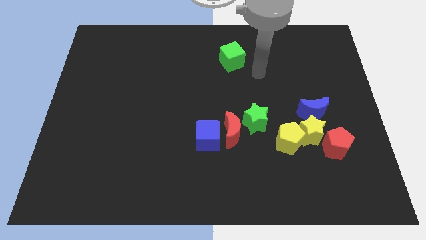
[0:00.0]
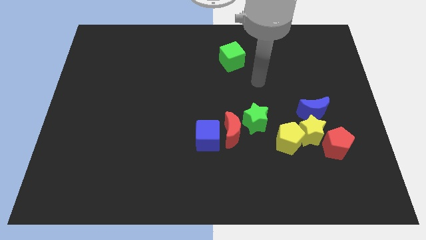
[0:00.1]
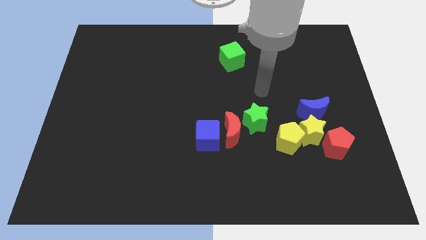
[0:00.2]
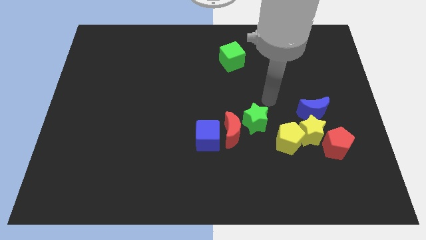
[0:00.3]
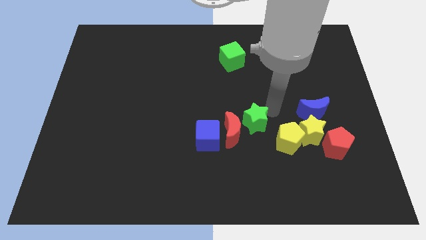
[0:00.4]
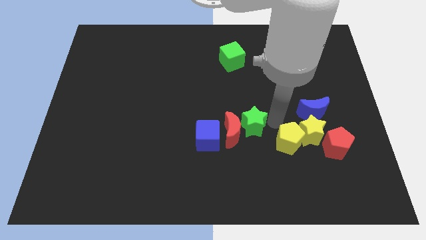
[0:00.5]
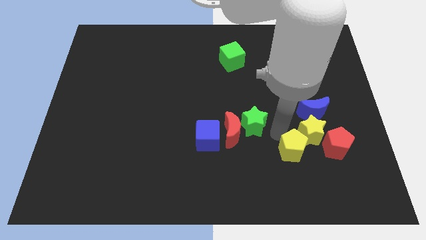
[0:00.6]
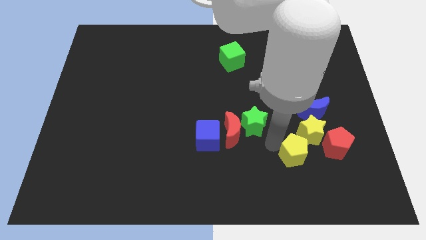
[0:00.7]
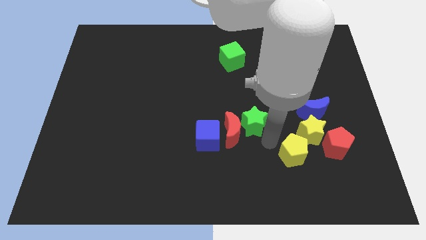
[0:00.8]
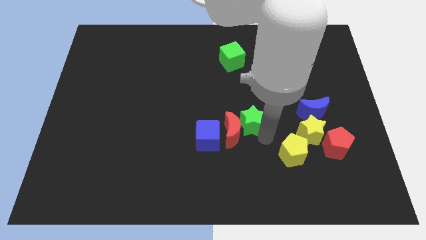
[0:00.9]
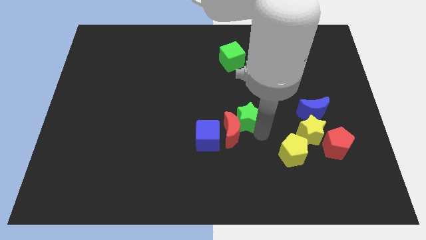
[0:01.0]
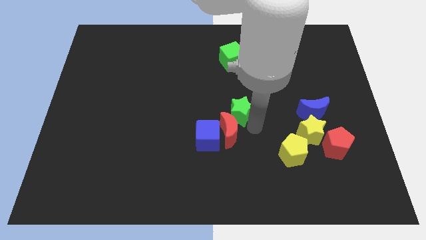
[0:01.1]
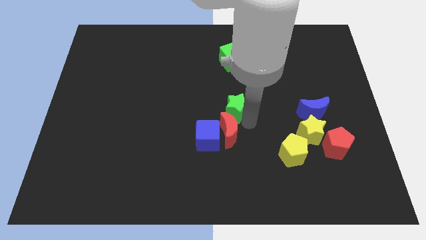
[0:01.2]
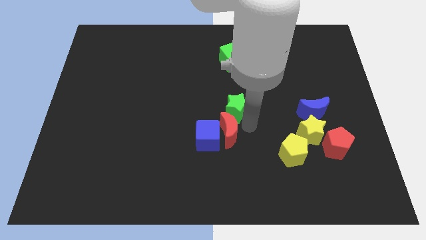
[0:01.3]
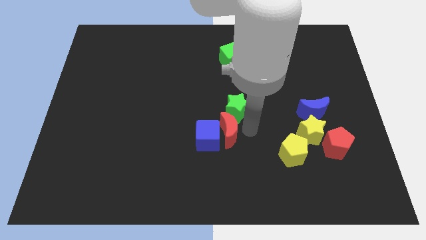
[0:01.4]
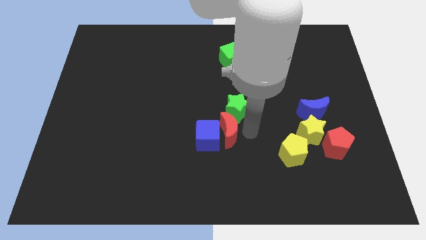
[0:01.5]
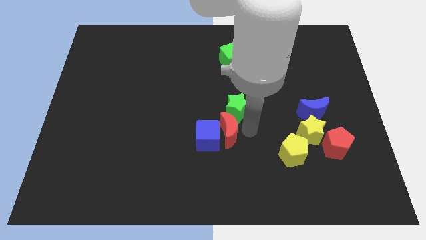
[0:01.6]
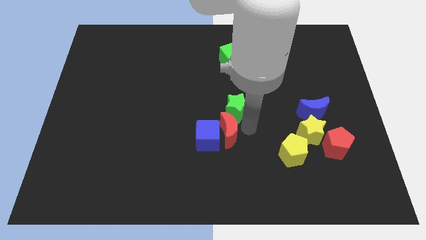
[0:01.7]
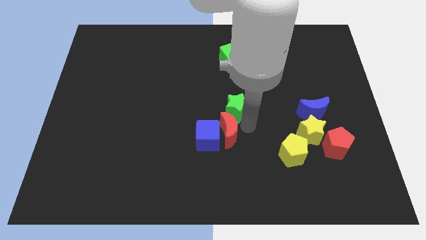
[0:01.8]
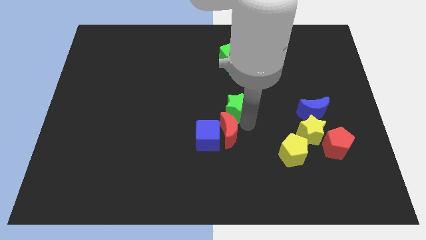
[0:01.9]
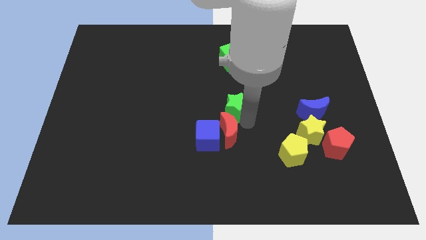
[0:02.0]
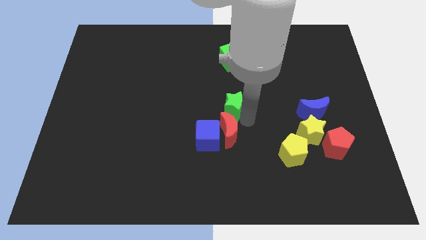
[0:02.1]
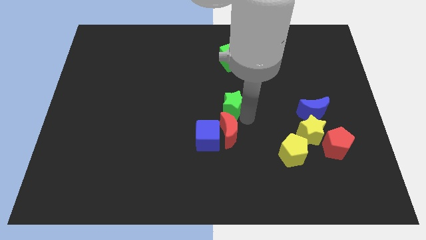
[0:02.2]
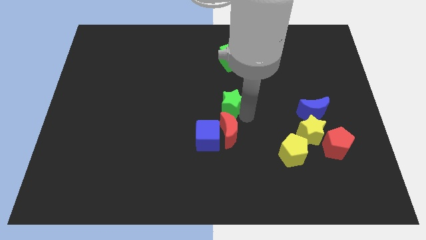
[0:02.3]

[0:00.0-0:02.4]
slide the green star up and left diagonally somewhat

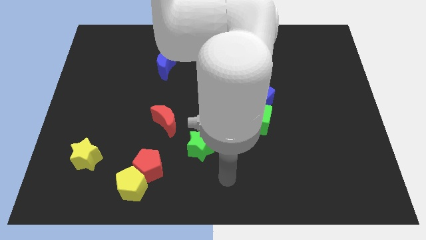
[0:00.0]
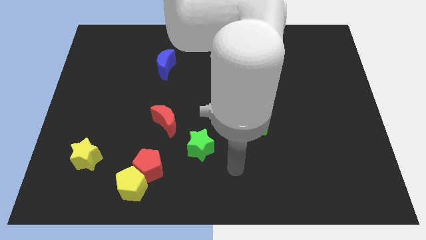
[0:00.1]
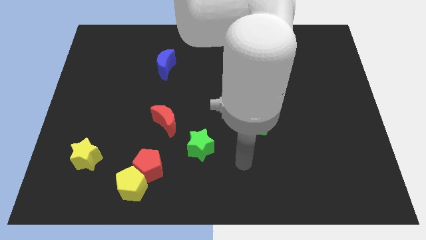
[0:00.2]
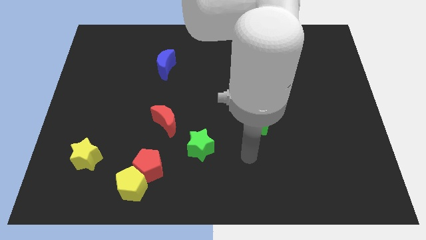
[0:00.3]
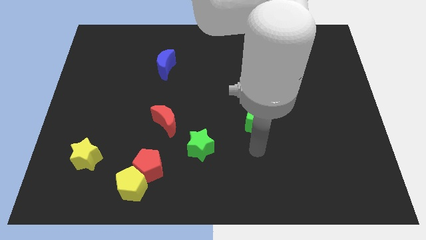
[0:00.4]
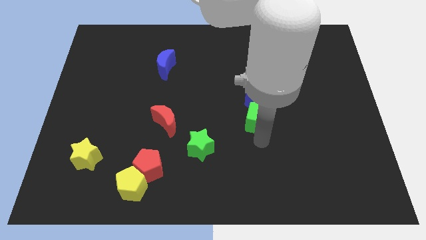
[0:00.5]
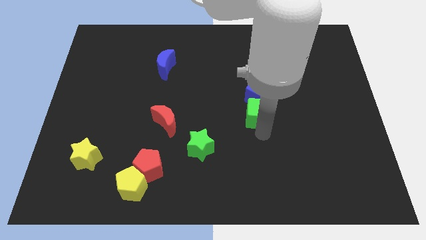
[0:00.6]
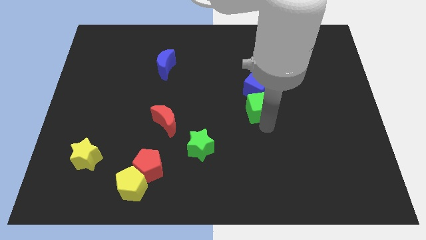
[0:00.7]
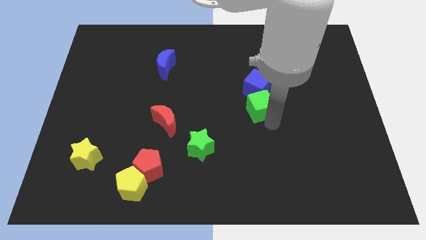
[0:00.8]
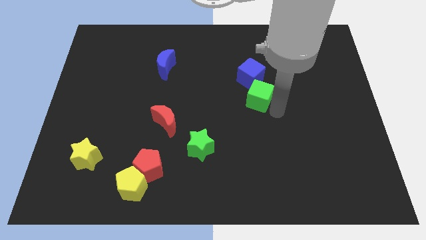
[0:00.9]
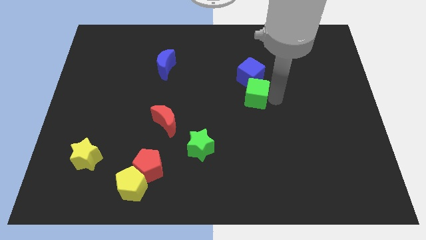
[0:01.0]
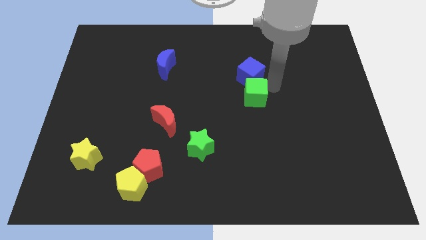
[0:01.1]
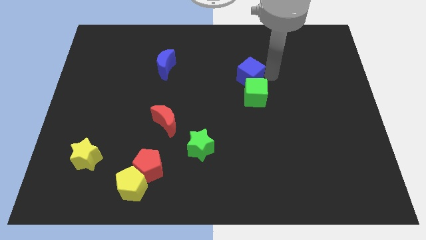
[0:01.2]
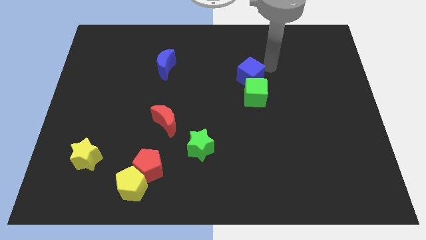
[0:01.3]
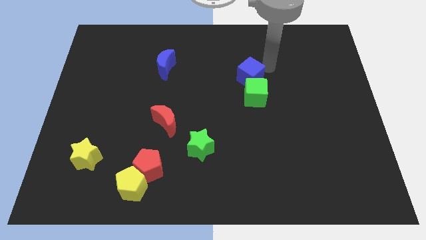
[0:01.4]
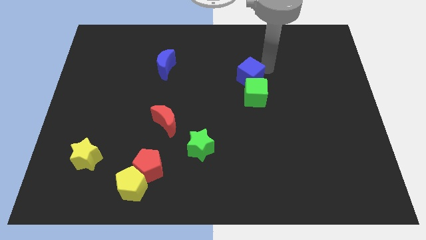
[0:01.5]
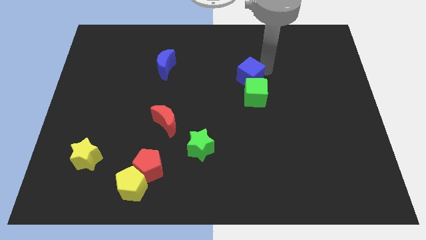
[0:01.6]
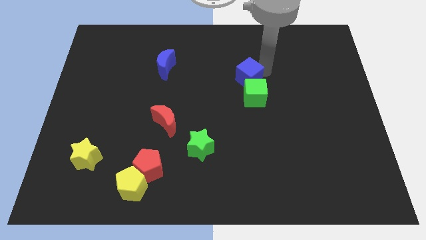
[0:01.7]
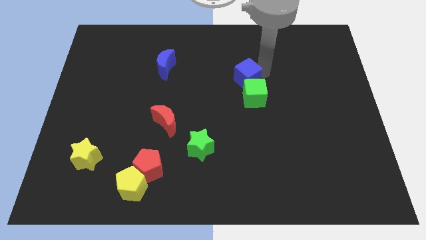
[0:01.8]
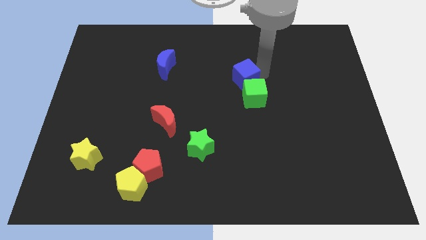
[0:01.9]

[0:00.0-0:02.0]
slightly push the blue cube up and to the left

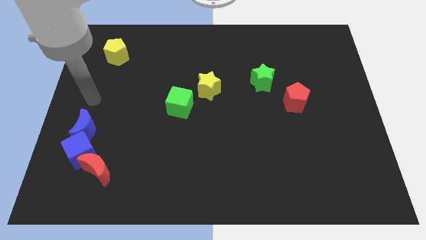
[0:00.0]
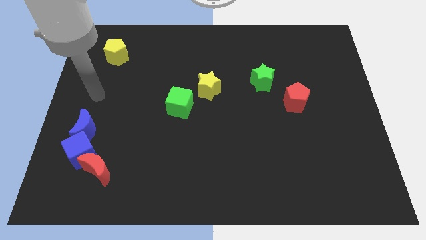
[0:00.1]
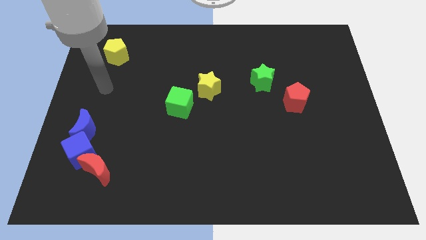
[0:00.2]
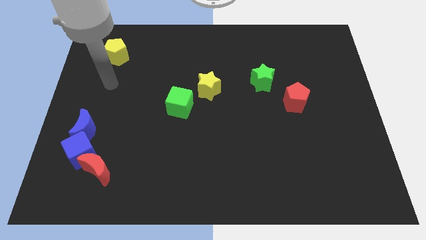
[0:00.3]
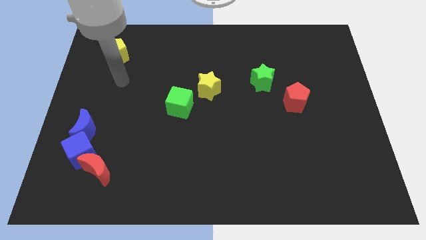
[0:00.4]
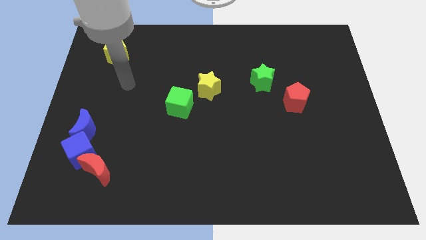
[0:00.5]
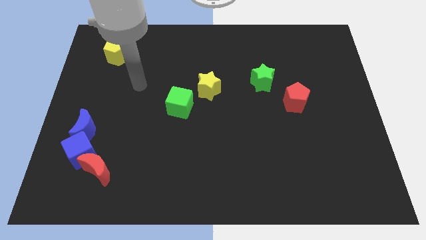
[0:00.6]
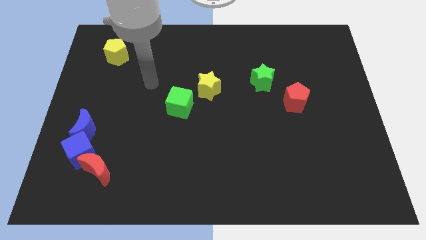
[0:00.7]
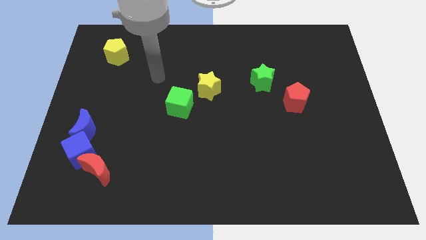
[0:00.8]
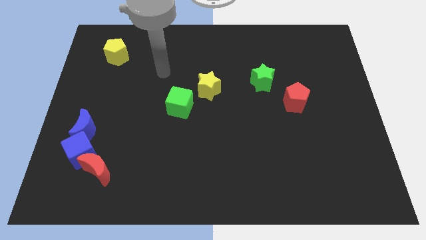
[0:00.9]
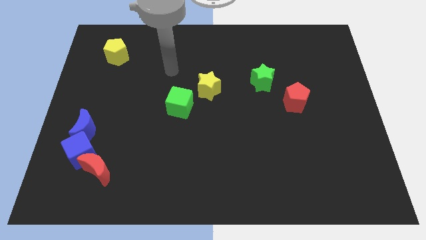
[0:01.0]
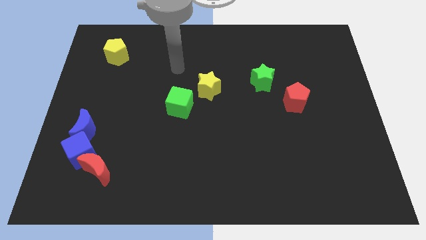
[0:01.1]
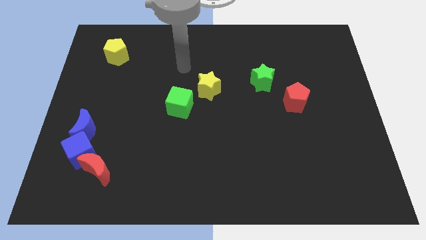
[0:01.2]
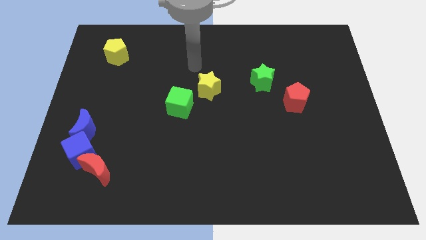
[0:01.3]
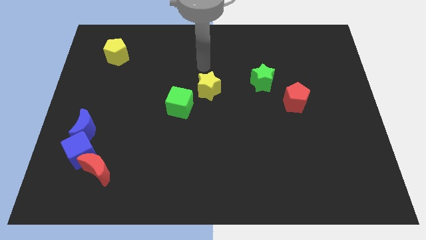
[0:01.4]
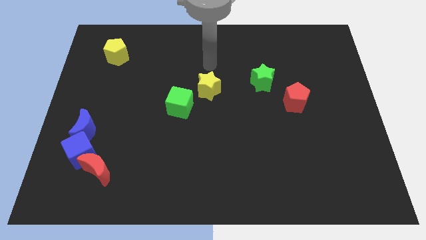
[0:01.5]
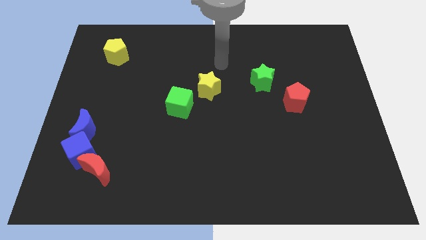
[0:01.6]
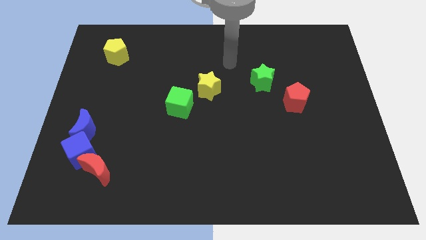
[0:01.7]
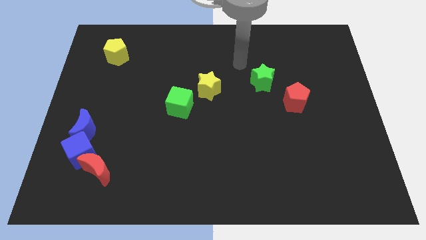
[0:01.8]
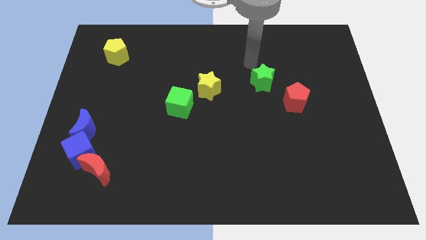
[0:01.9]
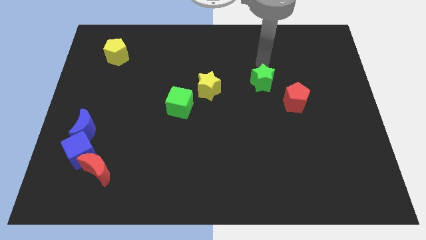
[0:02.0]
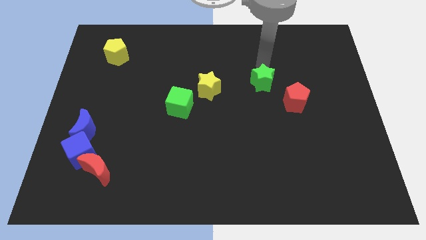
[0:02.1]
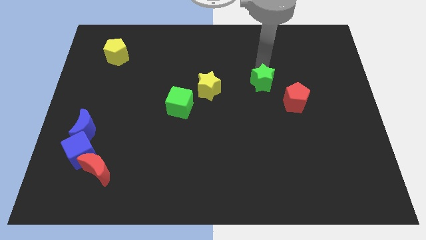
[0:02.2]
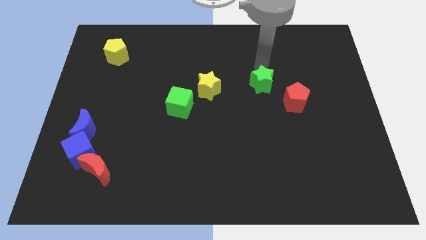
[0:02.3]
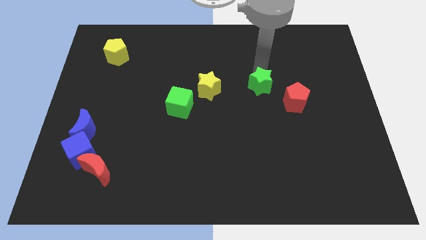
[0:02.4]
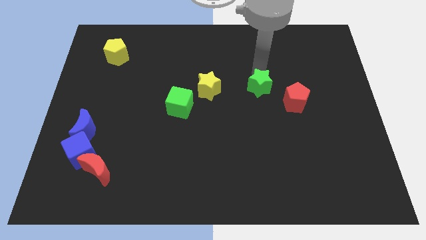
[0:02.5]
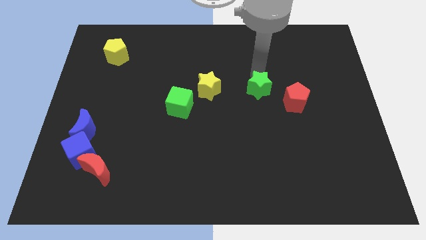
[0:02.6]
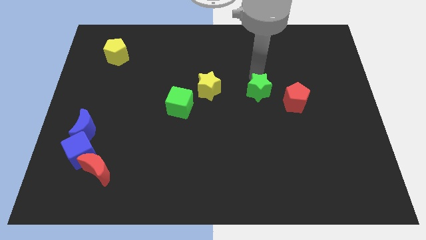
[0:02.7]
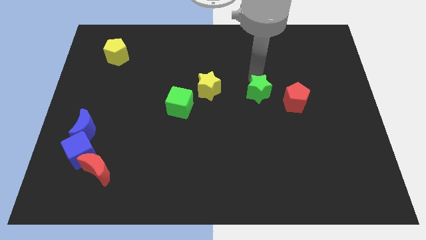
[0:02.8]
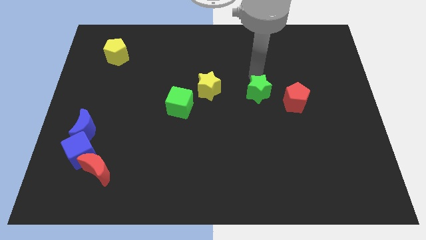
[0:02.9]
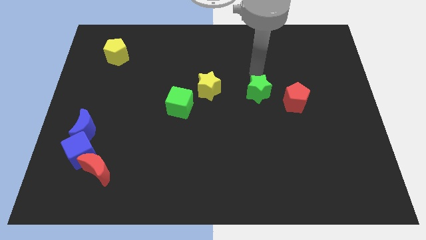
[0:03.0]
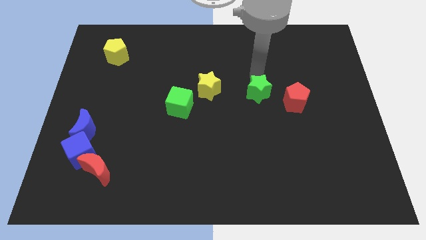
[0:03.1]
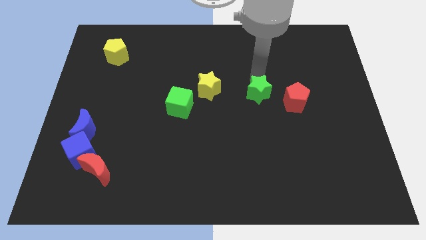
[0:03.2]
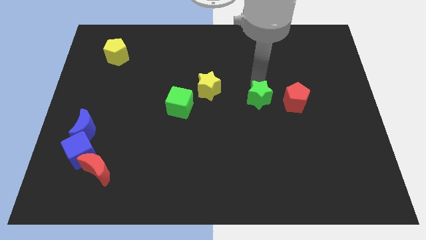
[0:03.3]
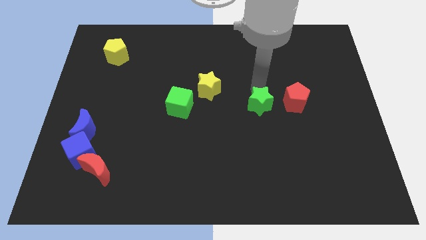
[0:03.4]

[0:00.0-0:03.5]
move the green star a little down
